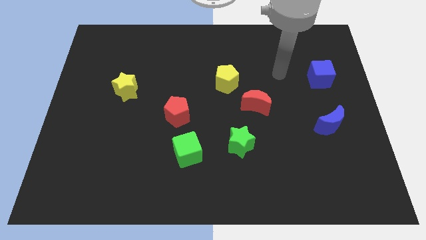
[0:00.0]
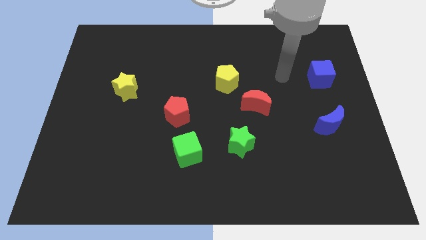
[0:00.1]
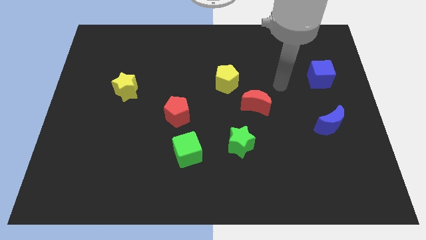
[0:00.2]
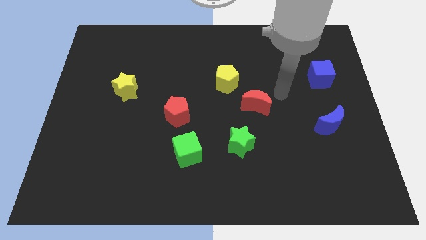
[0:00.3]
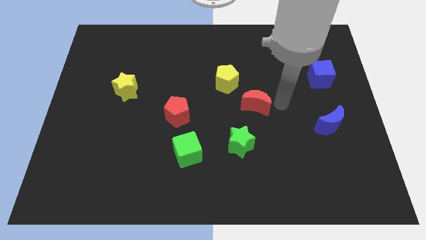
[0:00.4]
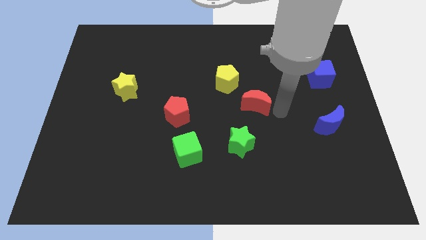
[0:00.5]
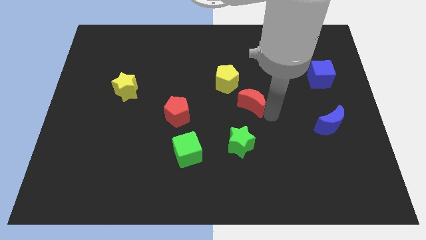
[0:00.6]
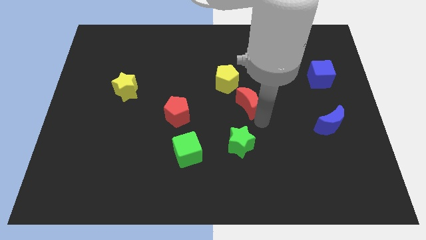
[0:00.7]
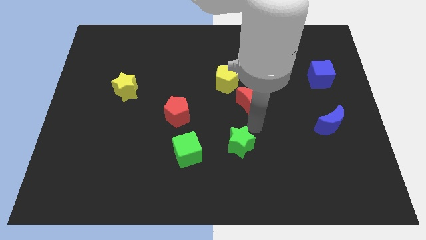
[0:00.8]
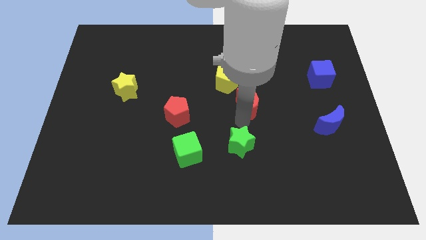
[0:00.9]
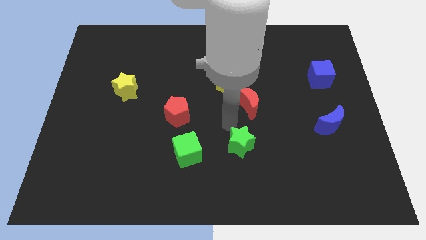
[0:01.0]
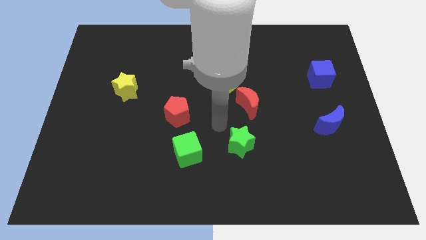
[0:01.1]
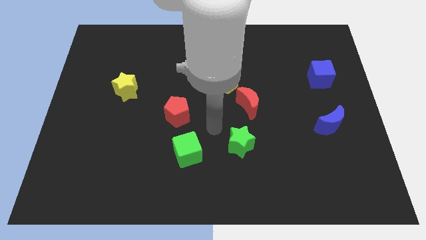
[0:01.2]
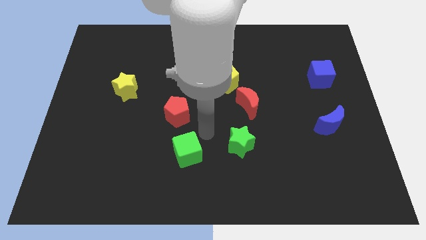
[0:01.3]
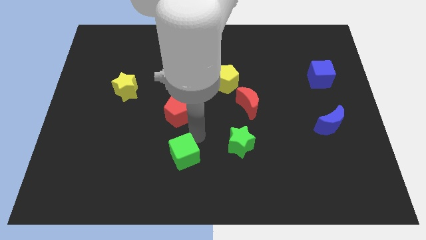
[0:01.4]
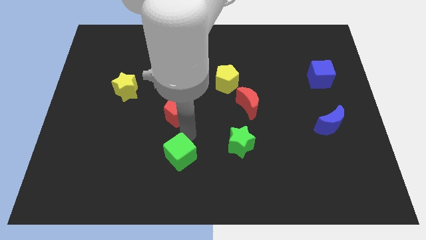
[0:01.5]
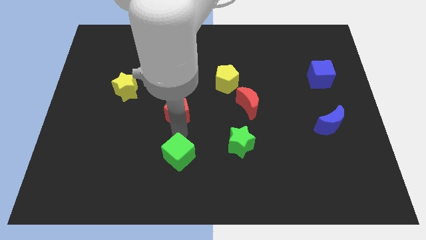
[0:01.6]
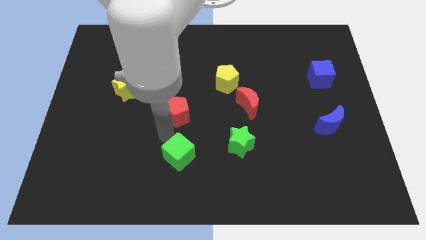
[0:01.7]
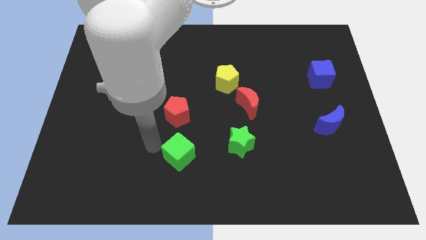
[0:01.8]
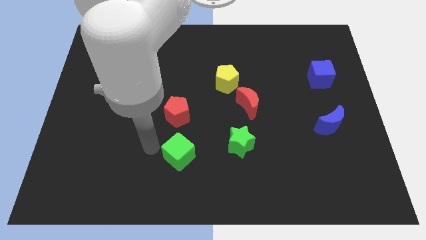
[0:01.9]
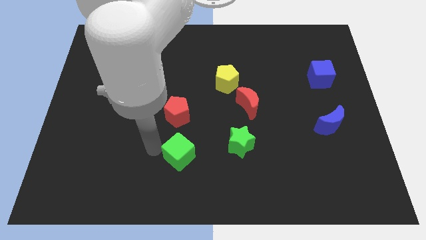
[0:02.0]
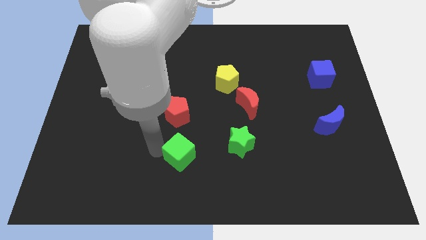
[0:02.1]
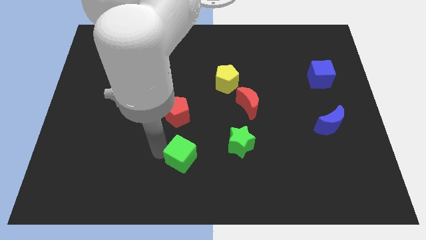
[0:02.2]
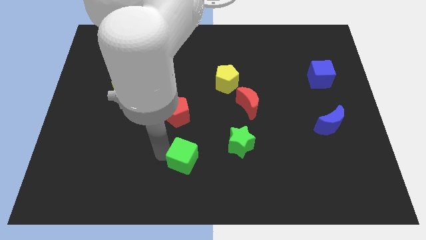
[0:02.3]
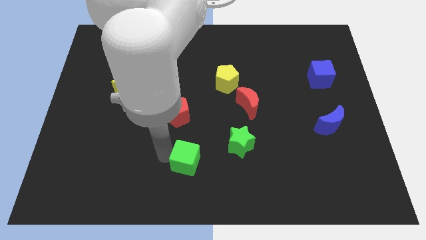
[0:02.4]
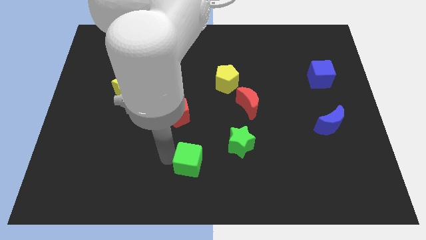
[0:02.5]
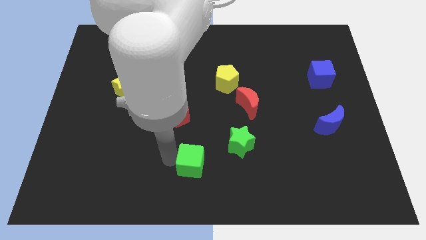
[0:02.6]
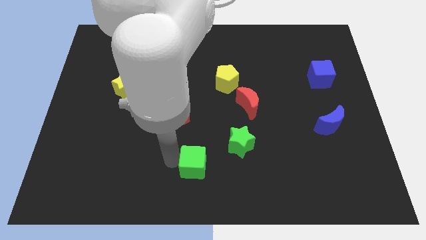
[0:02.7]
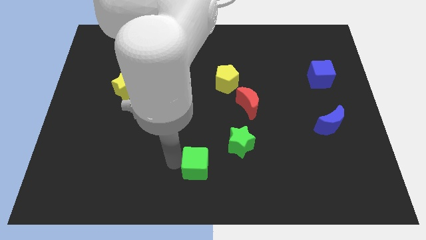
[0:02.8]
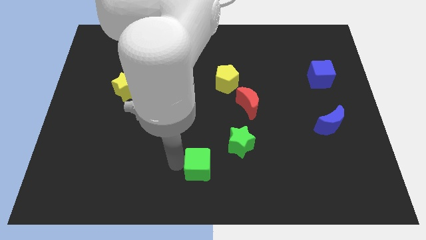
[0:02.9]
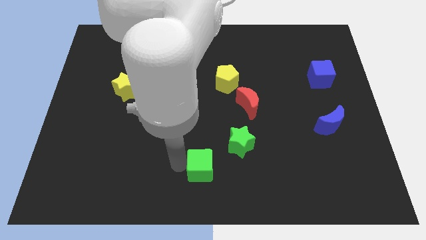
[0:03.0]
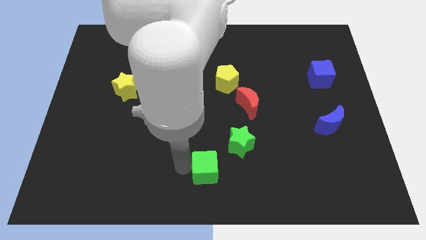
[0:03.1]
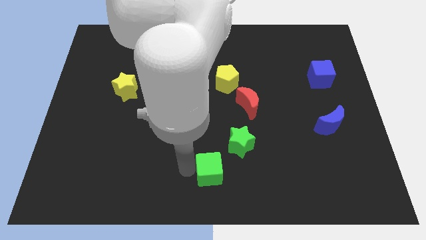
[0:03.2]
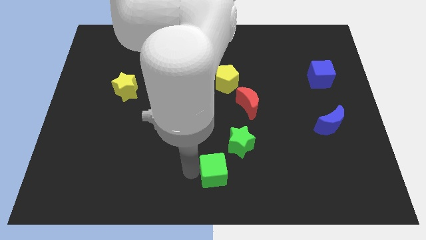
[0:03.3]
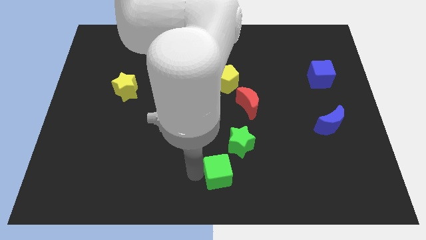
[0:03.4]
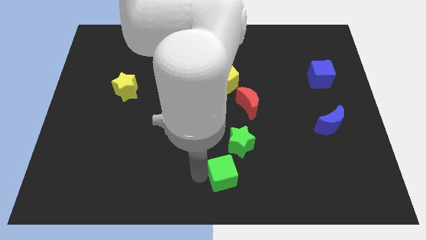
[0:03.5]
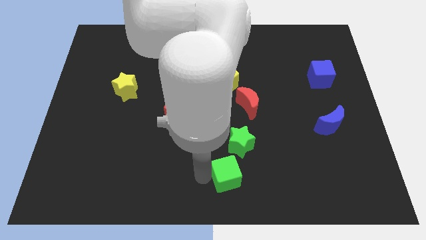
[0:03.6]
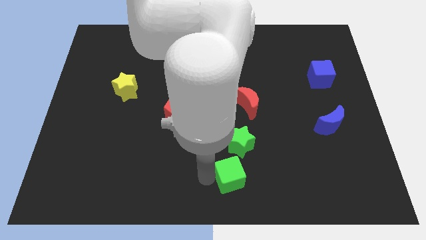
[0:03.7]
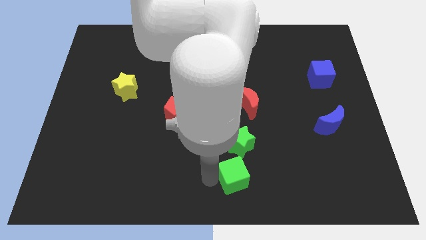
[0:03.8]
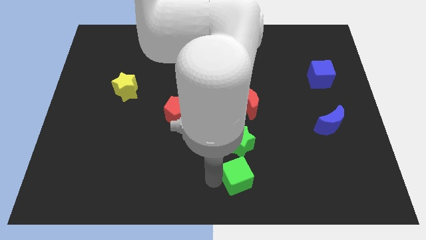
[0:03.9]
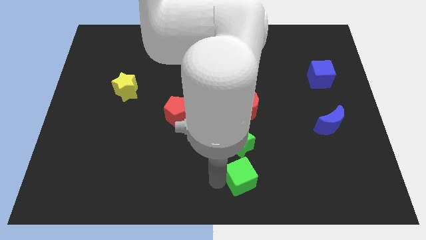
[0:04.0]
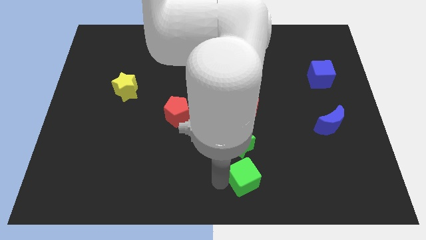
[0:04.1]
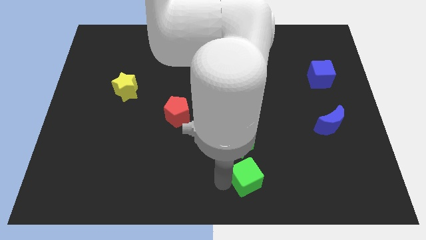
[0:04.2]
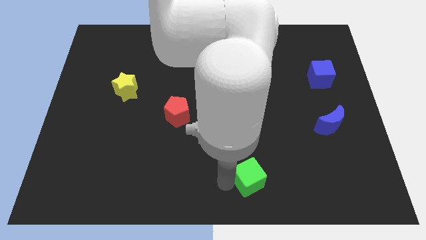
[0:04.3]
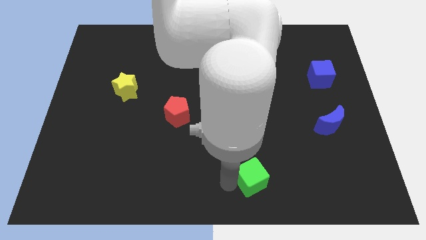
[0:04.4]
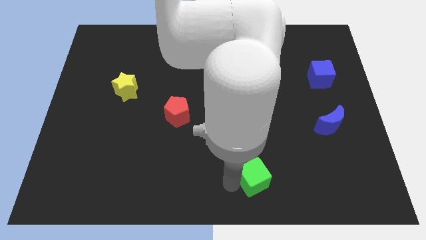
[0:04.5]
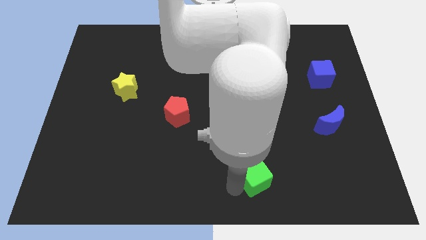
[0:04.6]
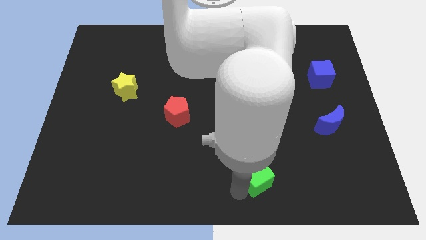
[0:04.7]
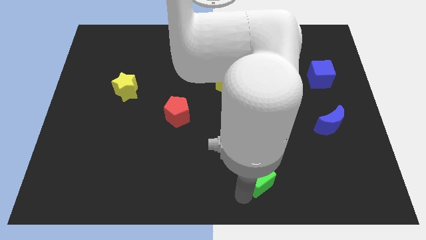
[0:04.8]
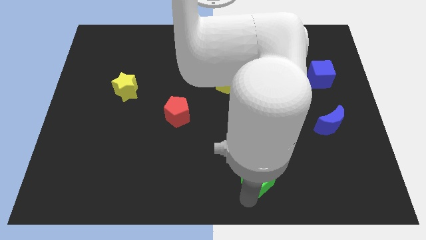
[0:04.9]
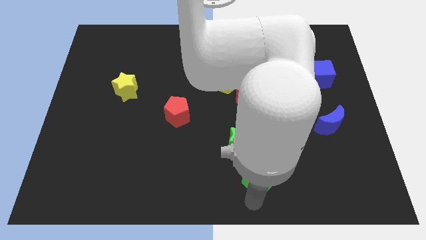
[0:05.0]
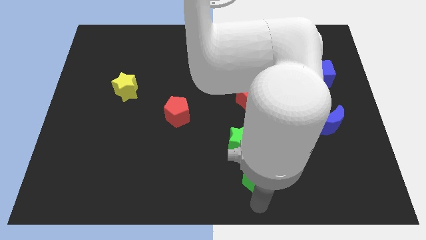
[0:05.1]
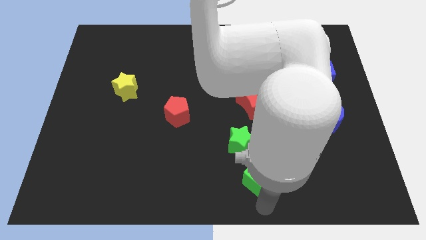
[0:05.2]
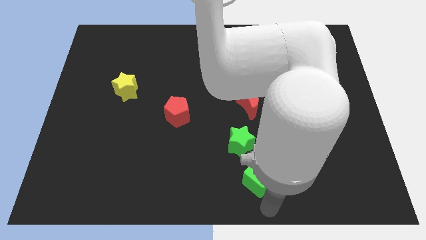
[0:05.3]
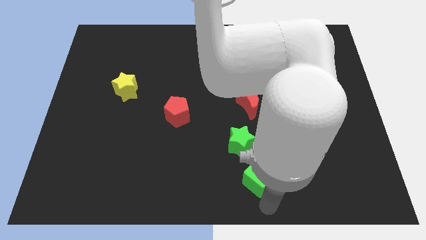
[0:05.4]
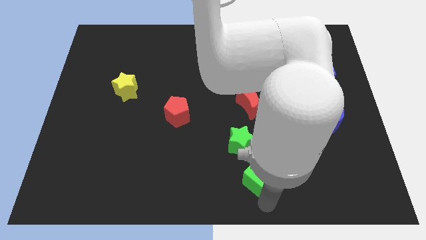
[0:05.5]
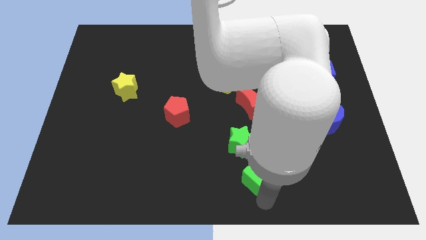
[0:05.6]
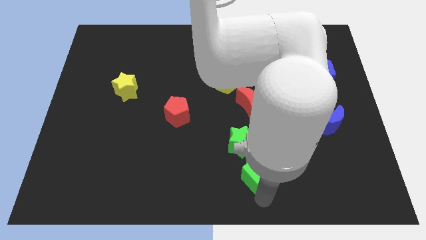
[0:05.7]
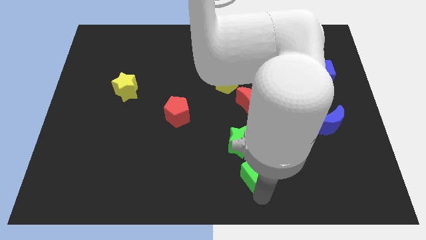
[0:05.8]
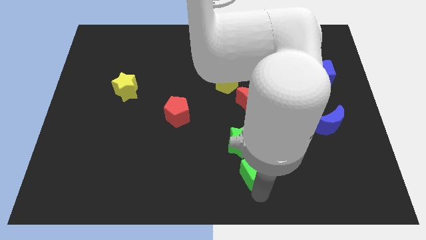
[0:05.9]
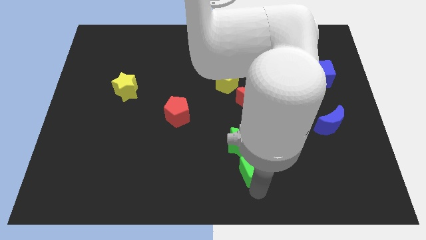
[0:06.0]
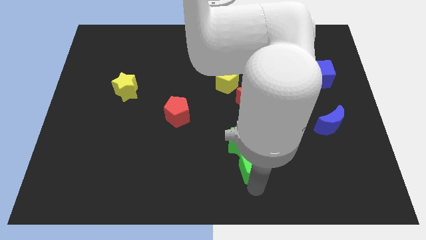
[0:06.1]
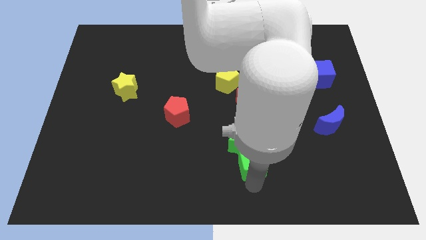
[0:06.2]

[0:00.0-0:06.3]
move the green cube to the bottom side of the red moon

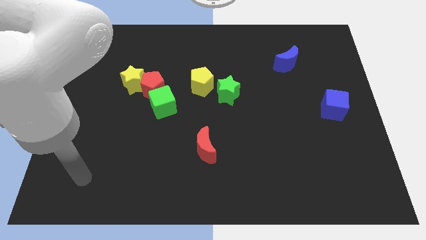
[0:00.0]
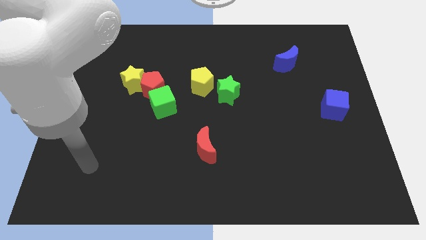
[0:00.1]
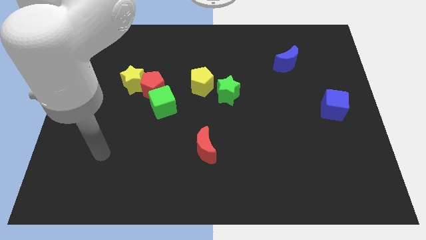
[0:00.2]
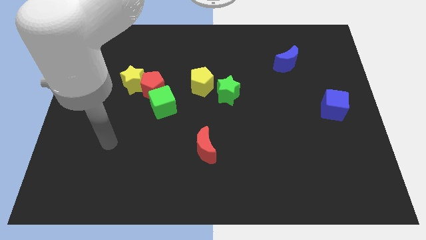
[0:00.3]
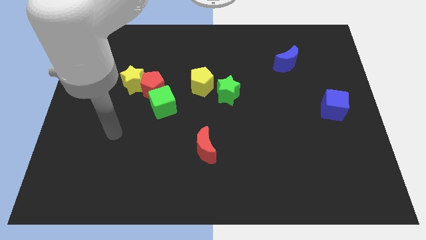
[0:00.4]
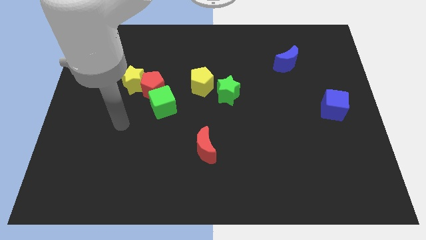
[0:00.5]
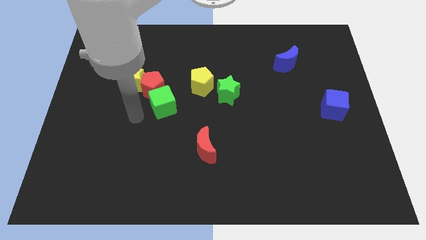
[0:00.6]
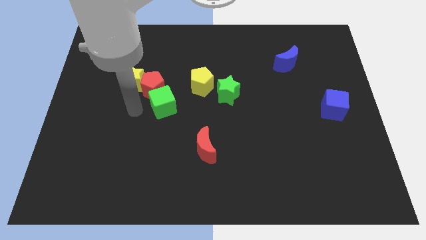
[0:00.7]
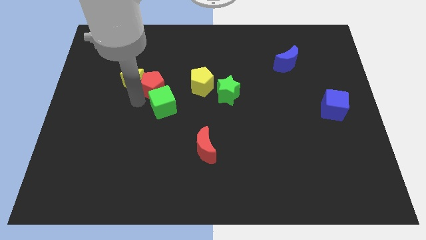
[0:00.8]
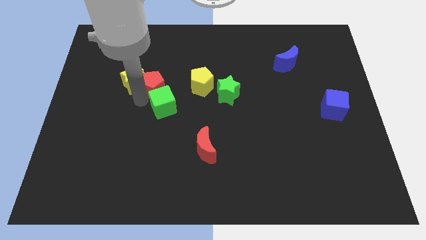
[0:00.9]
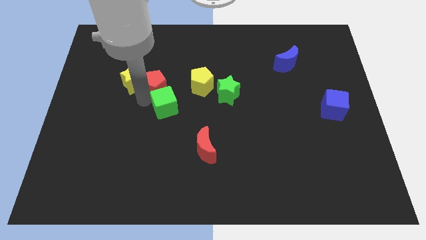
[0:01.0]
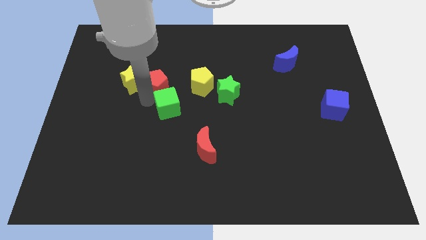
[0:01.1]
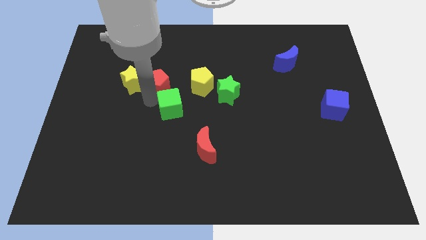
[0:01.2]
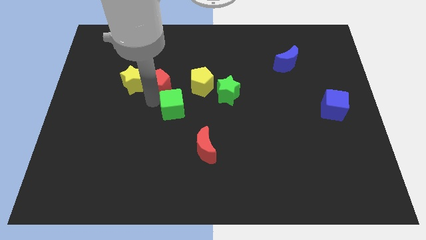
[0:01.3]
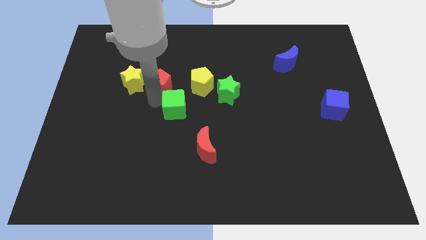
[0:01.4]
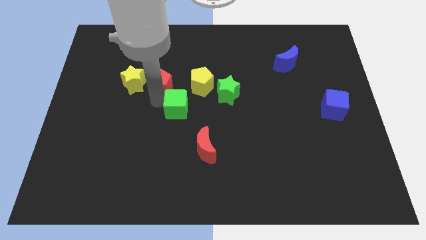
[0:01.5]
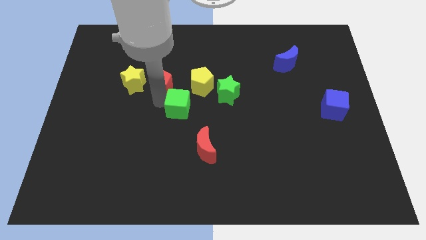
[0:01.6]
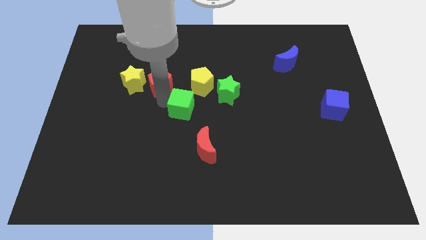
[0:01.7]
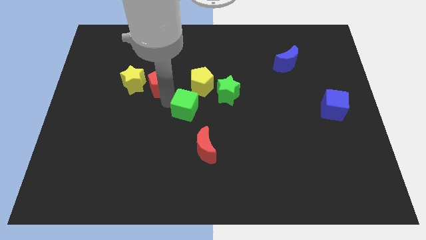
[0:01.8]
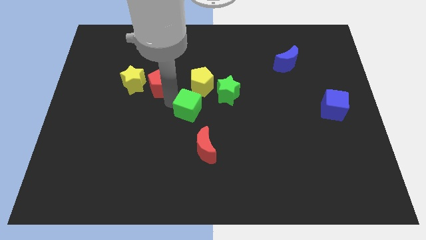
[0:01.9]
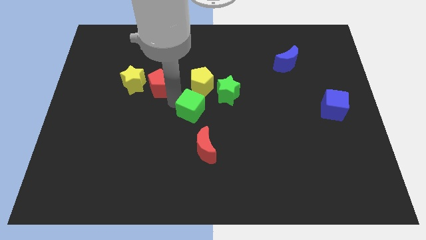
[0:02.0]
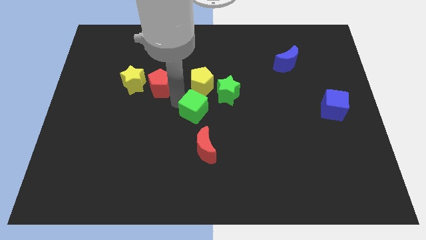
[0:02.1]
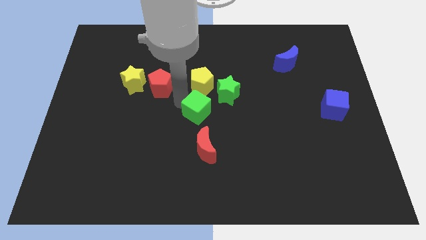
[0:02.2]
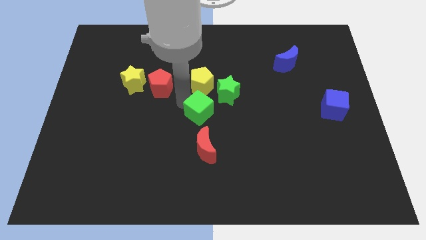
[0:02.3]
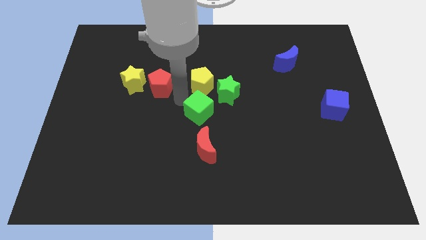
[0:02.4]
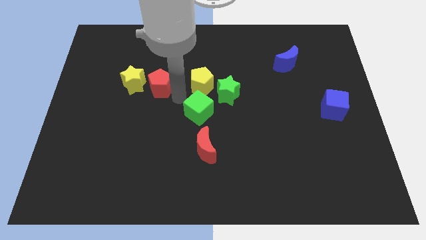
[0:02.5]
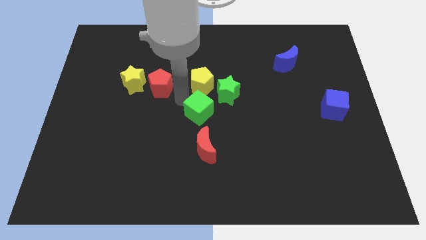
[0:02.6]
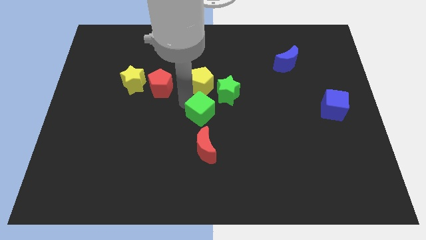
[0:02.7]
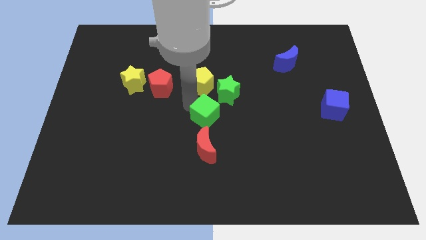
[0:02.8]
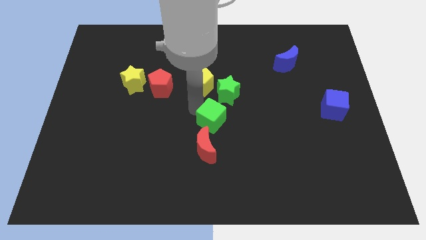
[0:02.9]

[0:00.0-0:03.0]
put the green cube to the top right side of the red moon
